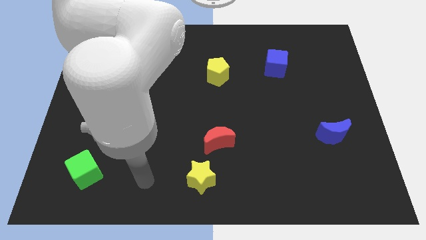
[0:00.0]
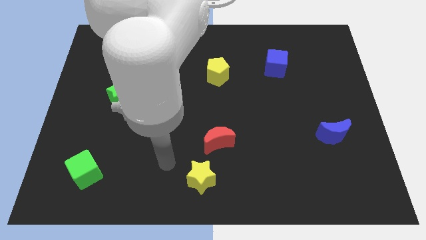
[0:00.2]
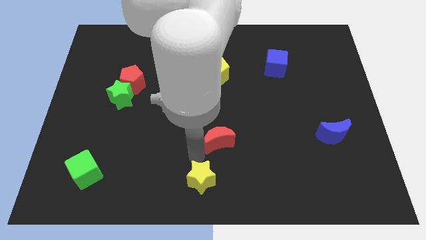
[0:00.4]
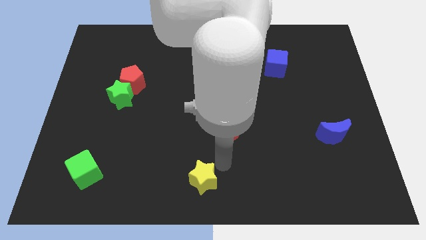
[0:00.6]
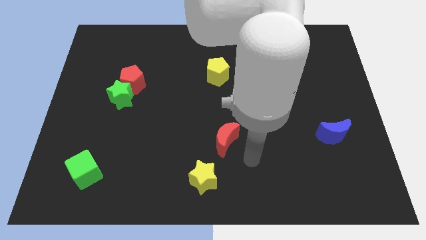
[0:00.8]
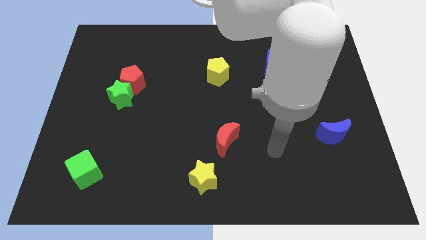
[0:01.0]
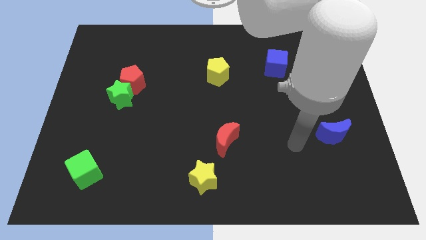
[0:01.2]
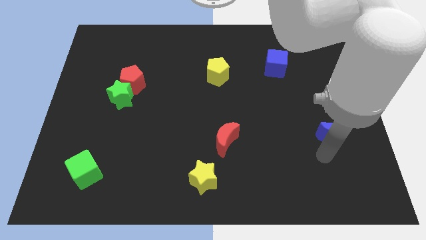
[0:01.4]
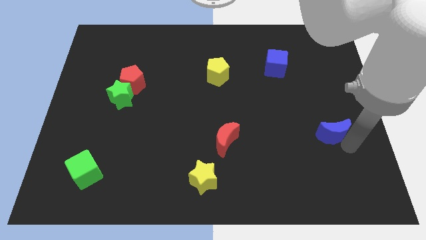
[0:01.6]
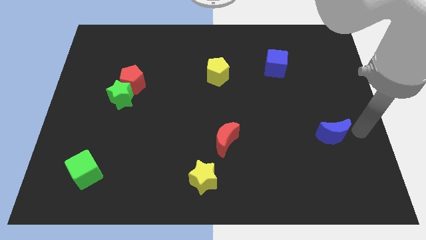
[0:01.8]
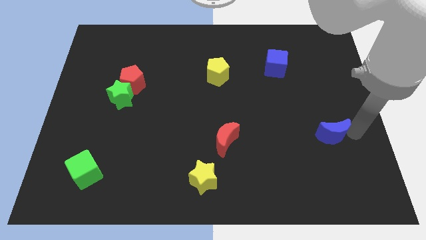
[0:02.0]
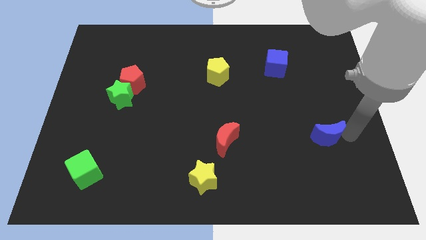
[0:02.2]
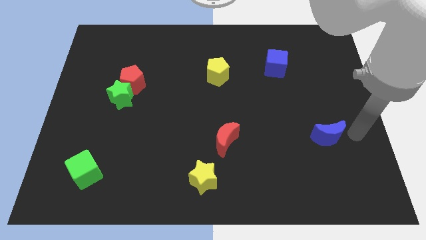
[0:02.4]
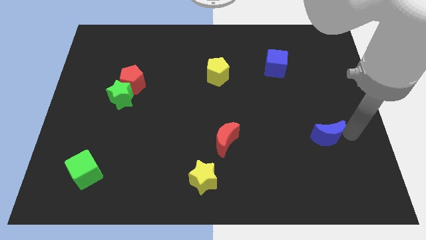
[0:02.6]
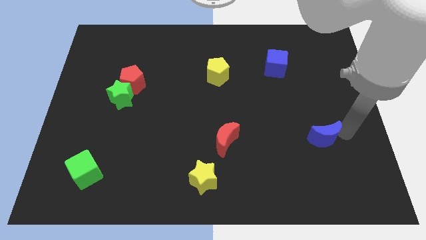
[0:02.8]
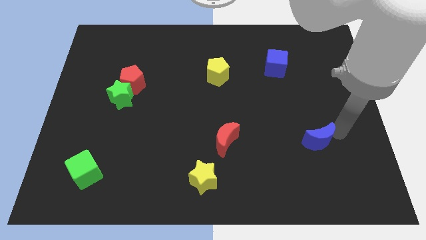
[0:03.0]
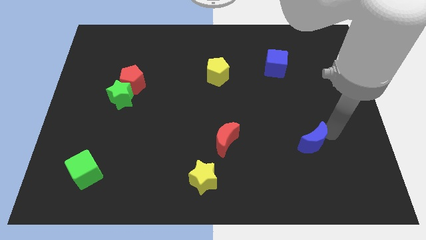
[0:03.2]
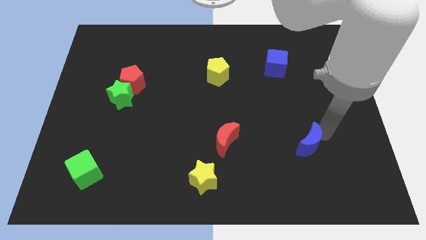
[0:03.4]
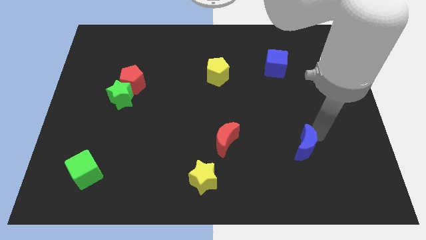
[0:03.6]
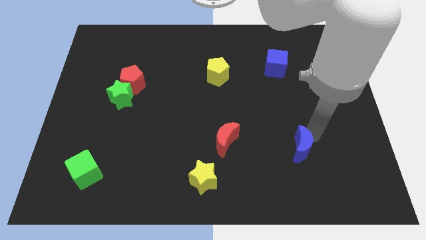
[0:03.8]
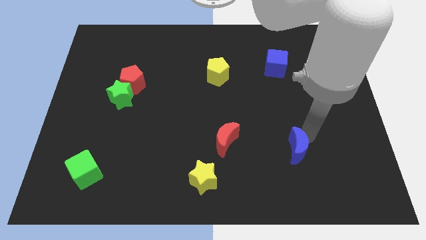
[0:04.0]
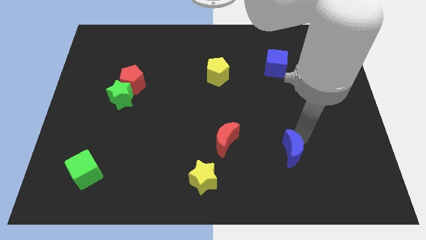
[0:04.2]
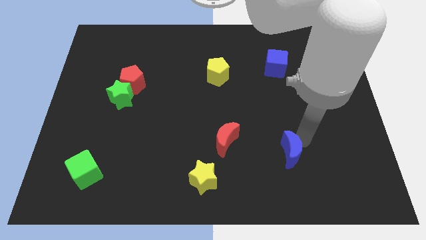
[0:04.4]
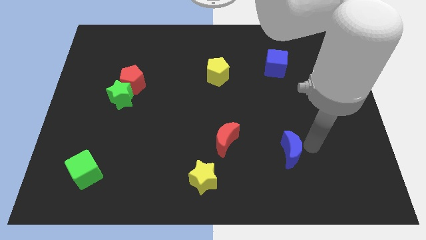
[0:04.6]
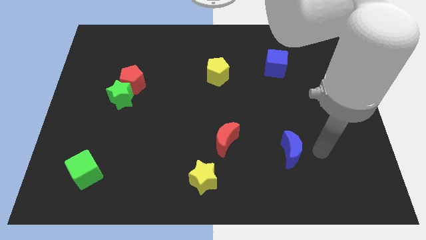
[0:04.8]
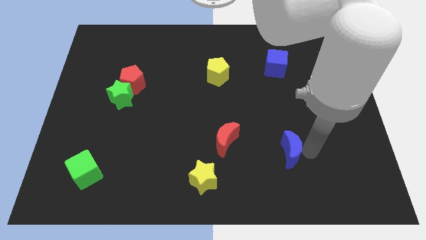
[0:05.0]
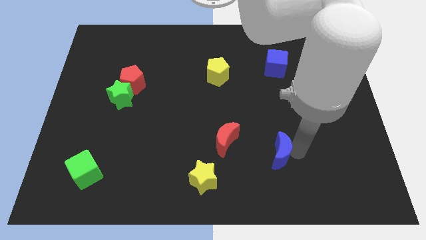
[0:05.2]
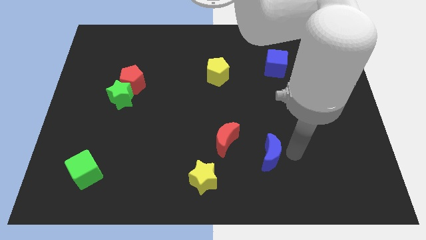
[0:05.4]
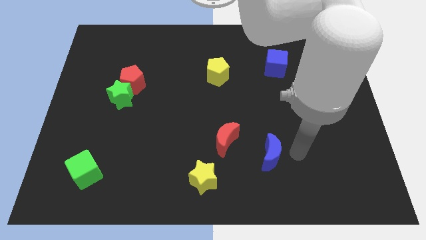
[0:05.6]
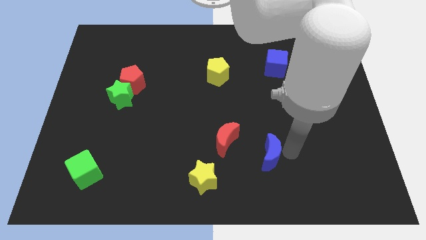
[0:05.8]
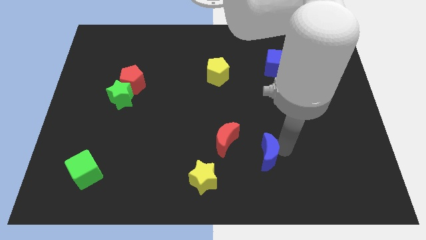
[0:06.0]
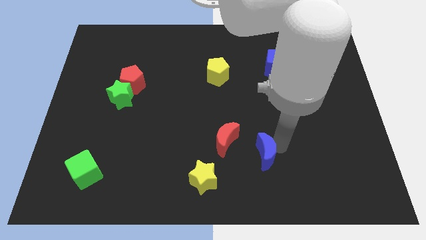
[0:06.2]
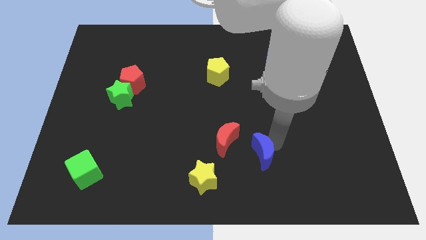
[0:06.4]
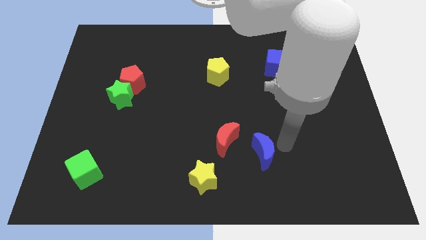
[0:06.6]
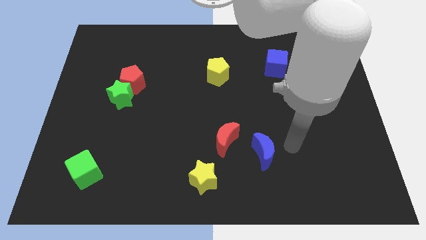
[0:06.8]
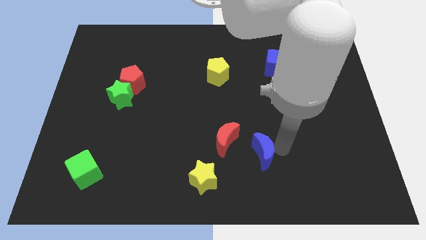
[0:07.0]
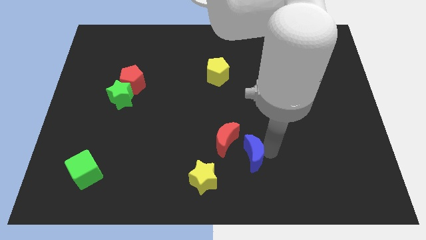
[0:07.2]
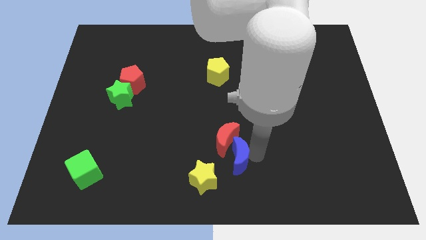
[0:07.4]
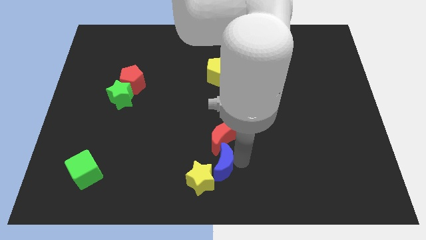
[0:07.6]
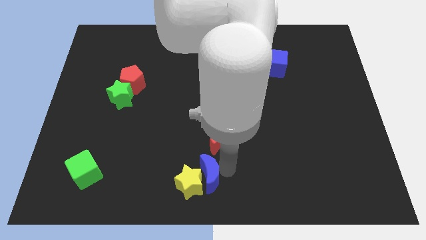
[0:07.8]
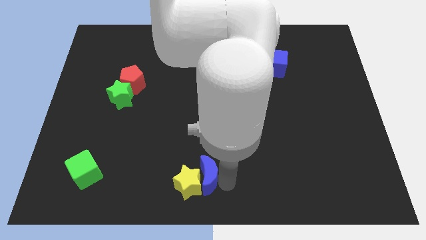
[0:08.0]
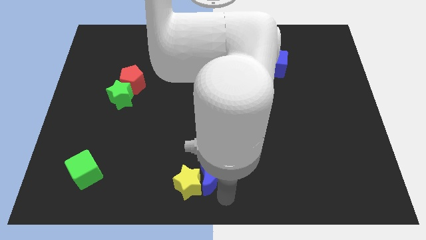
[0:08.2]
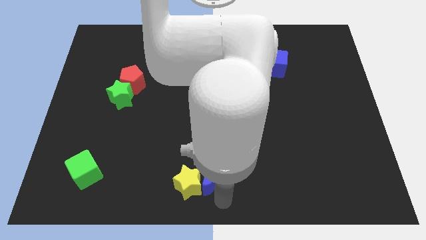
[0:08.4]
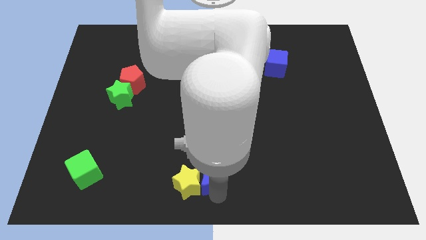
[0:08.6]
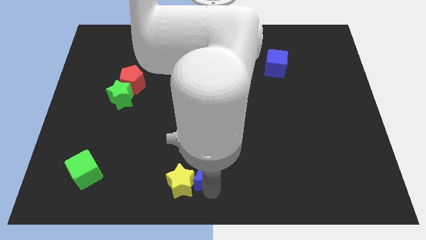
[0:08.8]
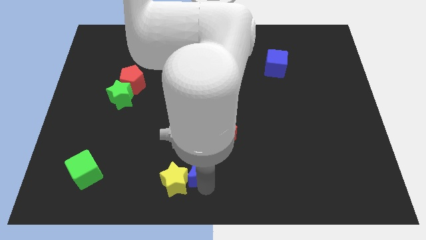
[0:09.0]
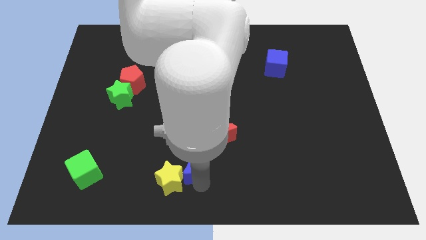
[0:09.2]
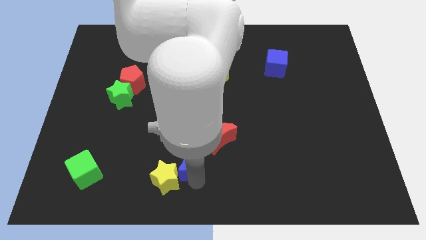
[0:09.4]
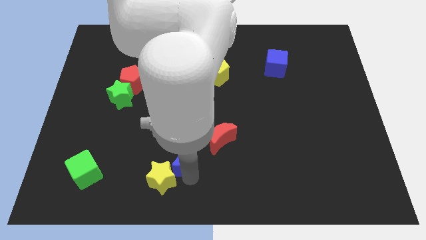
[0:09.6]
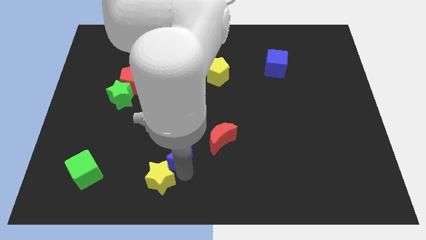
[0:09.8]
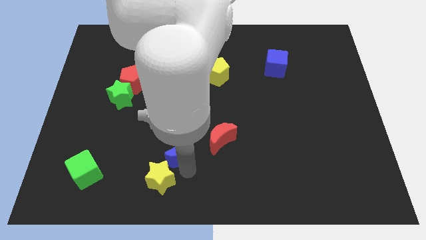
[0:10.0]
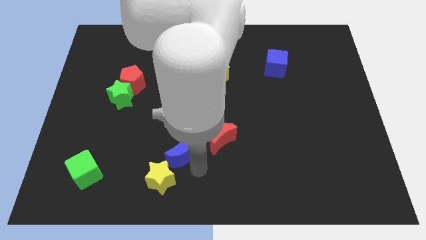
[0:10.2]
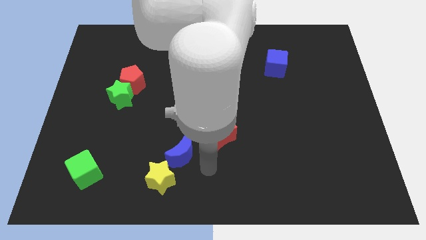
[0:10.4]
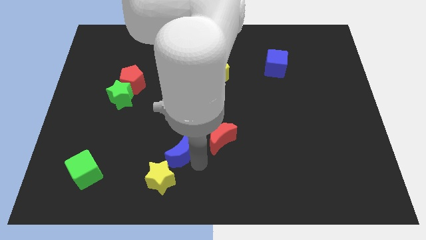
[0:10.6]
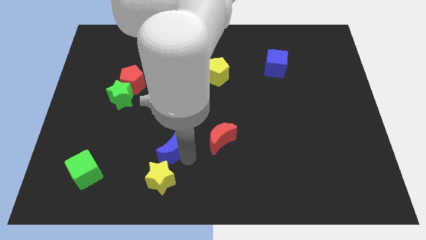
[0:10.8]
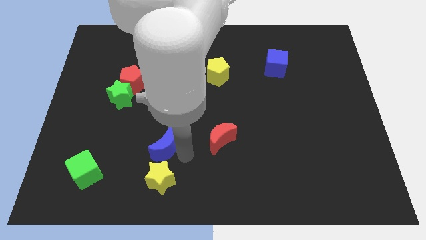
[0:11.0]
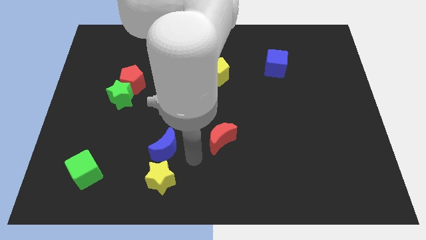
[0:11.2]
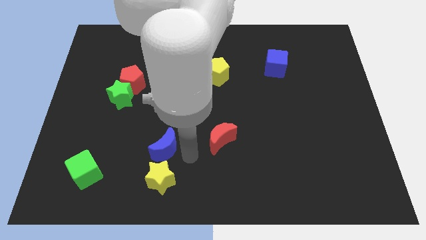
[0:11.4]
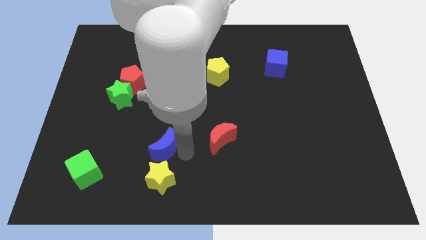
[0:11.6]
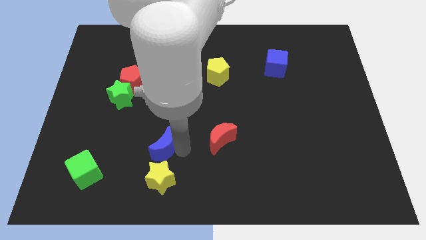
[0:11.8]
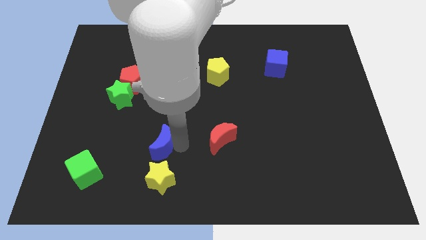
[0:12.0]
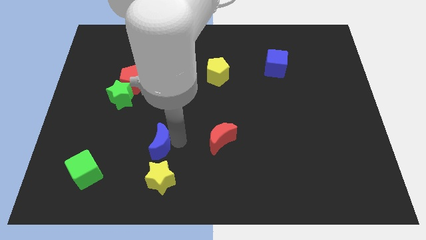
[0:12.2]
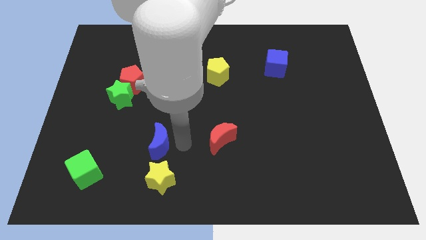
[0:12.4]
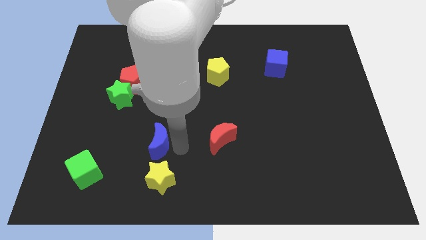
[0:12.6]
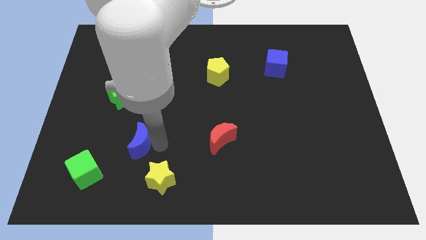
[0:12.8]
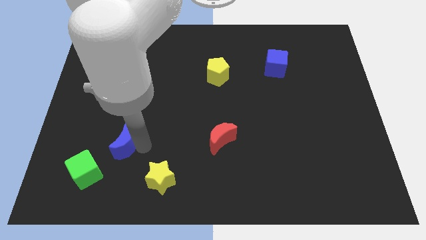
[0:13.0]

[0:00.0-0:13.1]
push the blue moon to the bottom of the green star
